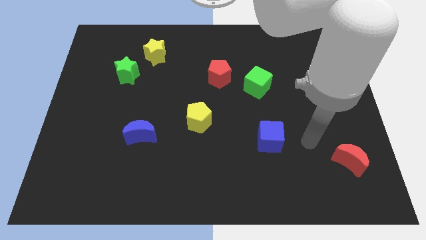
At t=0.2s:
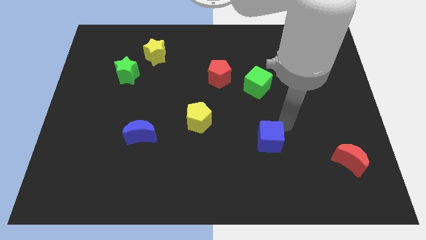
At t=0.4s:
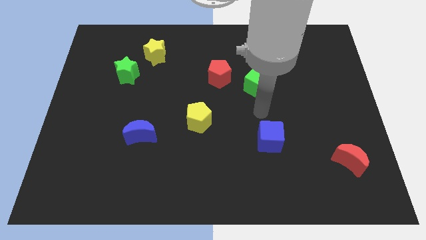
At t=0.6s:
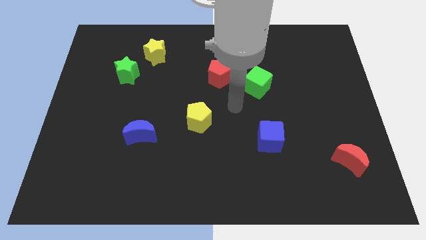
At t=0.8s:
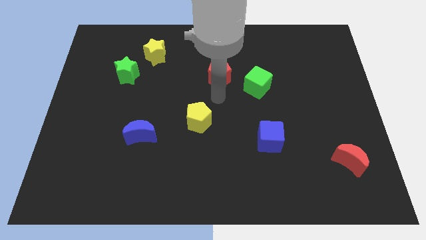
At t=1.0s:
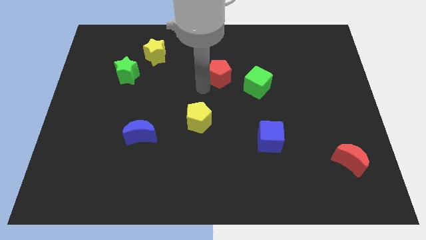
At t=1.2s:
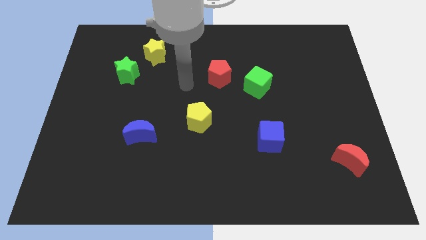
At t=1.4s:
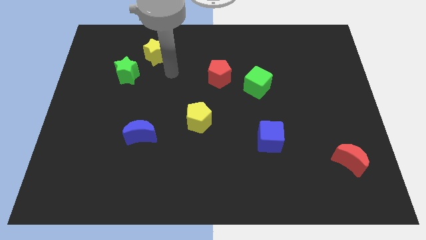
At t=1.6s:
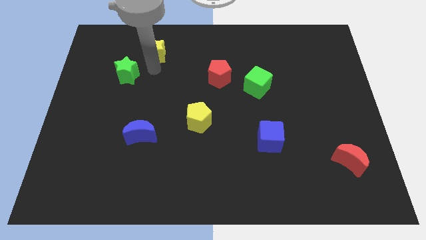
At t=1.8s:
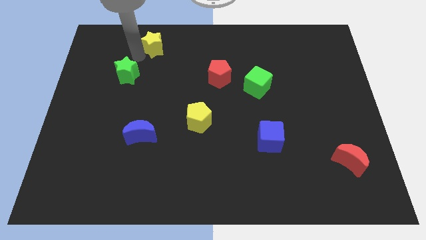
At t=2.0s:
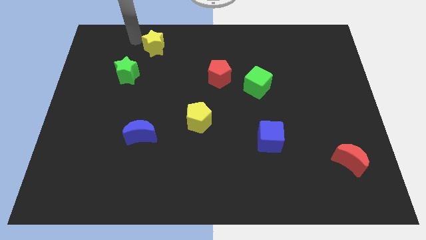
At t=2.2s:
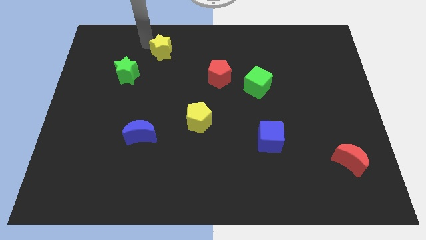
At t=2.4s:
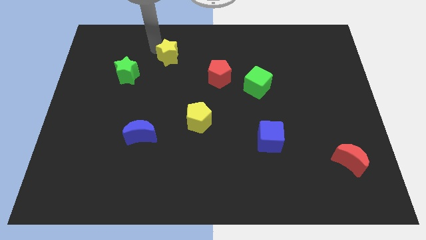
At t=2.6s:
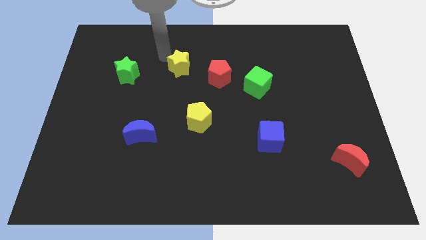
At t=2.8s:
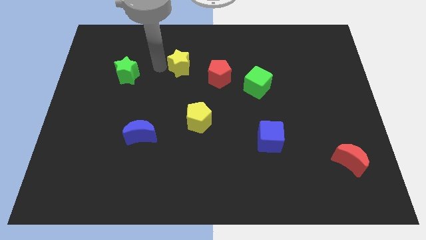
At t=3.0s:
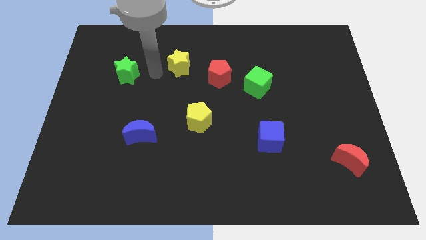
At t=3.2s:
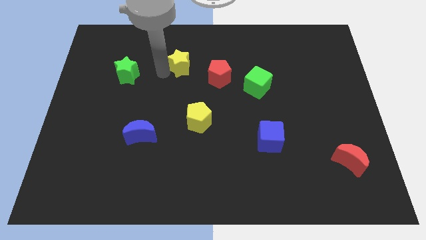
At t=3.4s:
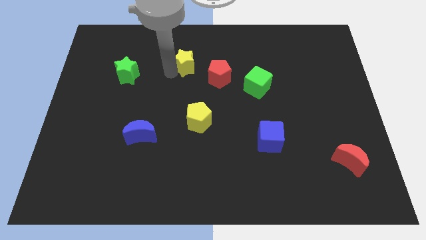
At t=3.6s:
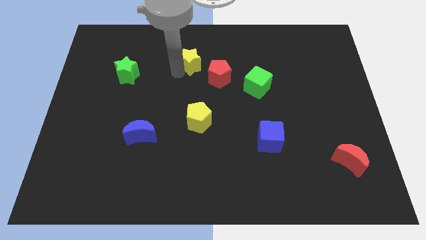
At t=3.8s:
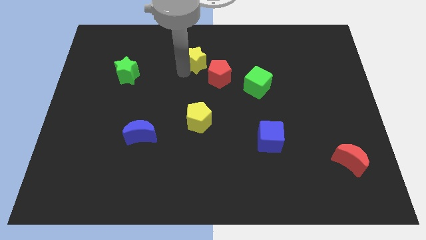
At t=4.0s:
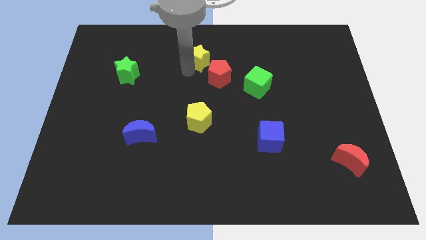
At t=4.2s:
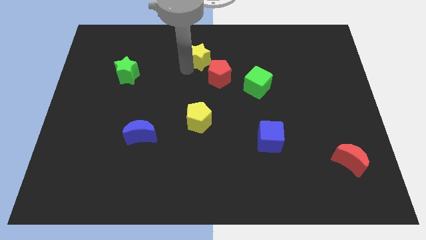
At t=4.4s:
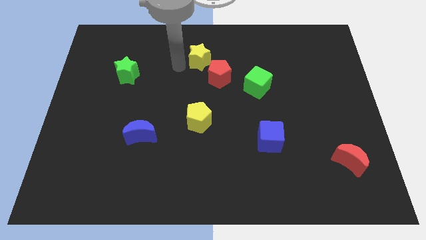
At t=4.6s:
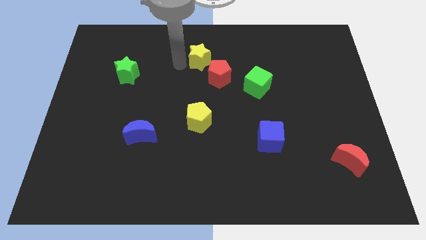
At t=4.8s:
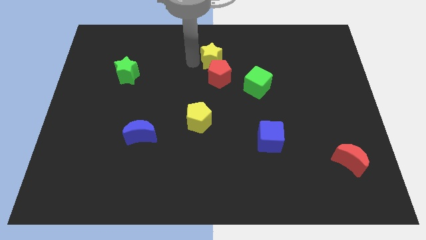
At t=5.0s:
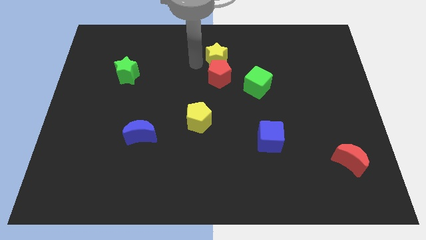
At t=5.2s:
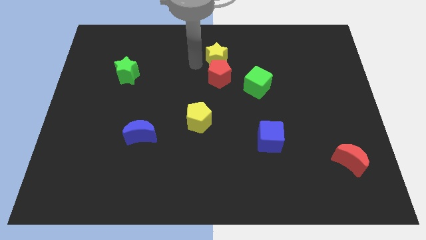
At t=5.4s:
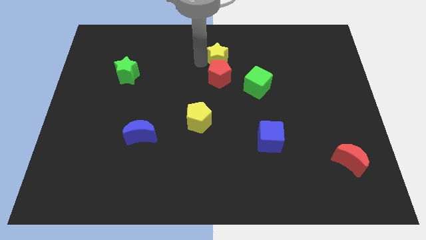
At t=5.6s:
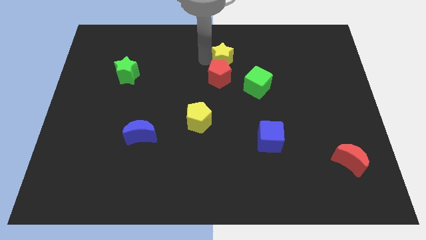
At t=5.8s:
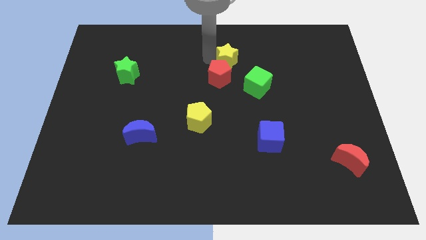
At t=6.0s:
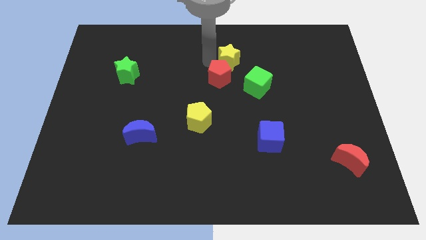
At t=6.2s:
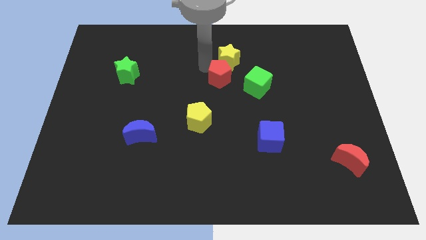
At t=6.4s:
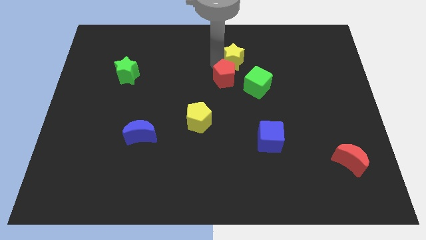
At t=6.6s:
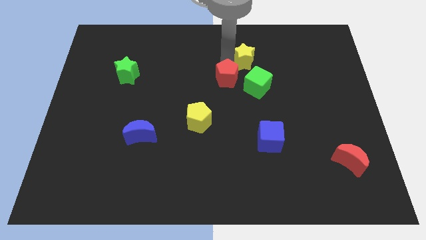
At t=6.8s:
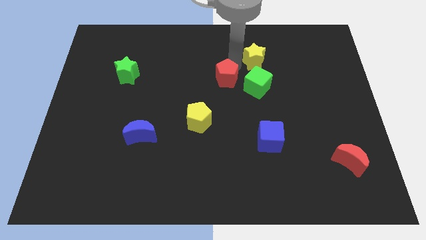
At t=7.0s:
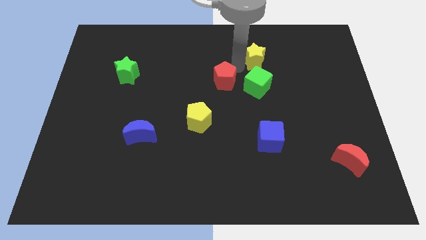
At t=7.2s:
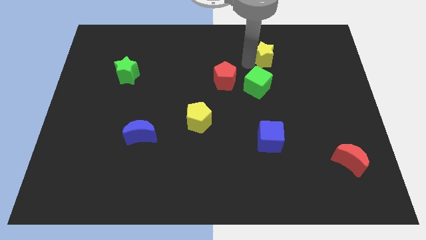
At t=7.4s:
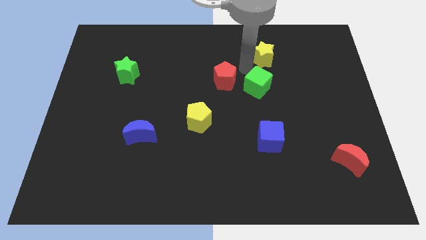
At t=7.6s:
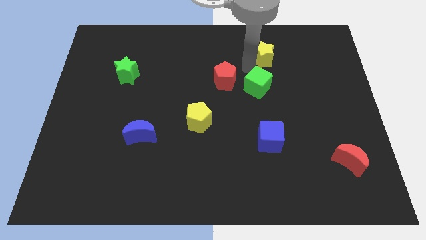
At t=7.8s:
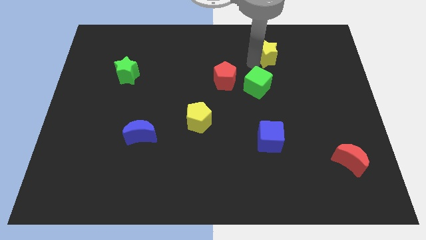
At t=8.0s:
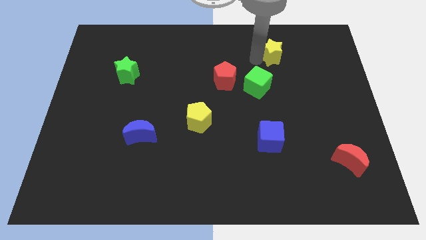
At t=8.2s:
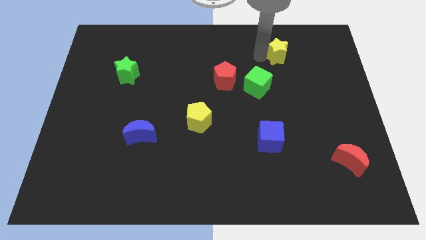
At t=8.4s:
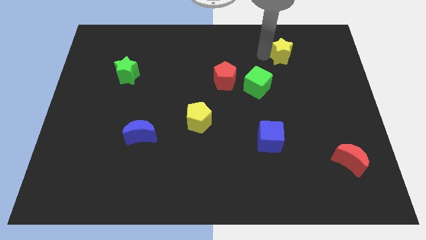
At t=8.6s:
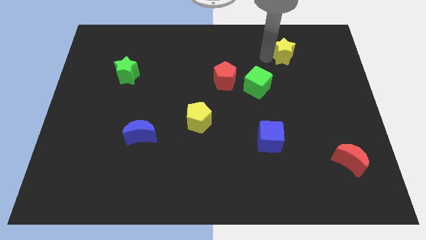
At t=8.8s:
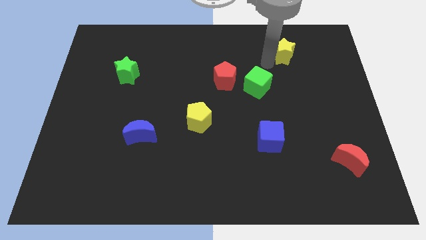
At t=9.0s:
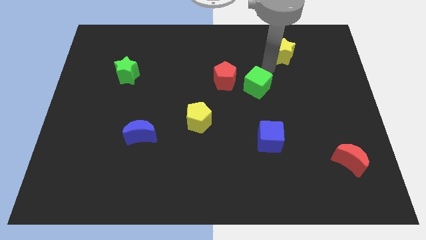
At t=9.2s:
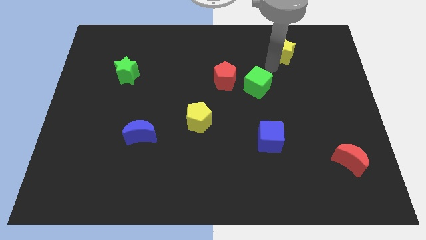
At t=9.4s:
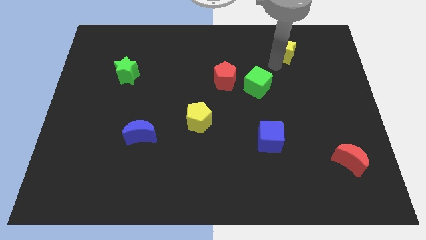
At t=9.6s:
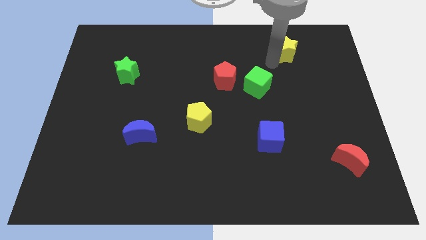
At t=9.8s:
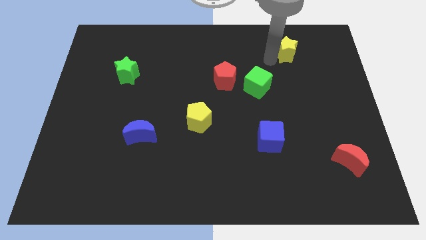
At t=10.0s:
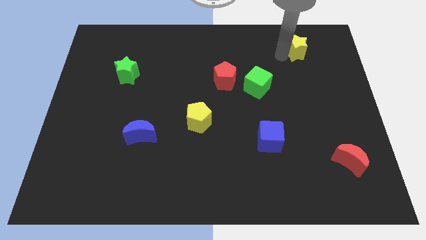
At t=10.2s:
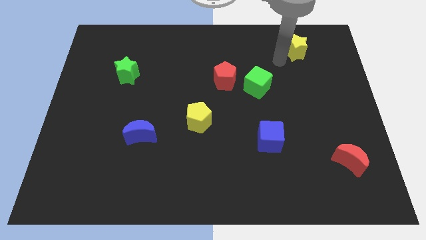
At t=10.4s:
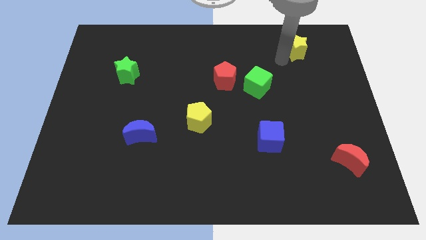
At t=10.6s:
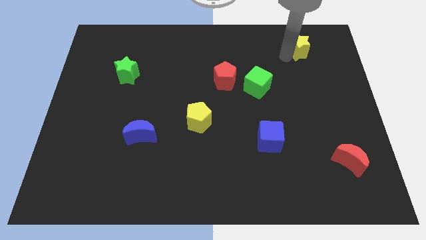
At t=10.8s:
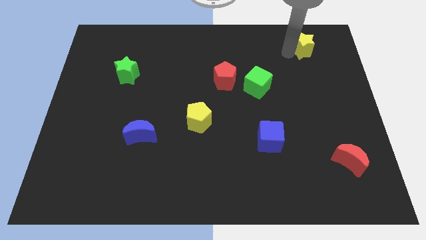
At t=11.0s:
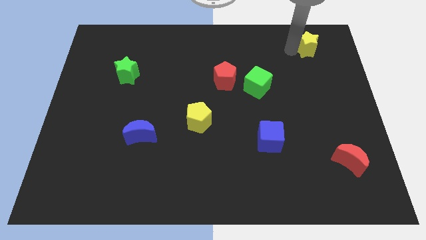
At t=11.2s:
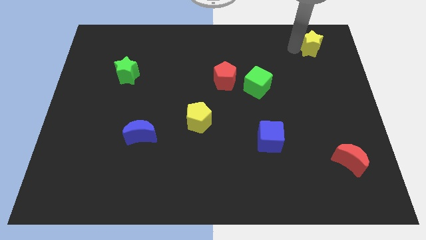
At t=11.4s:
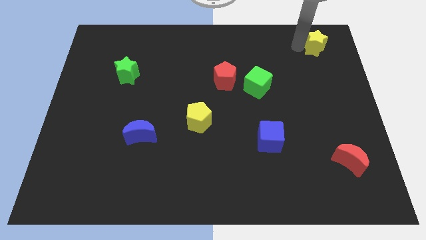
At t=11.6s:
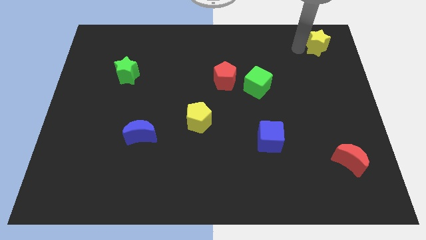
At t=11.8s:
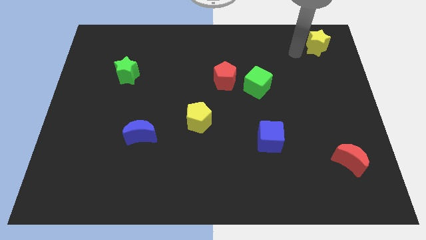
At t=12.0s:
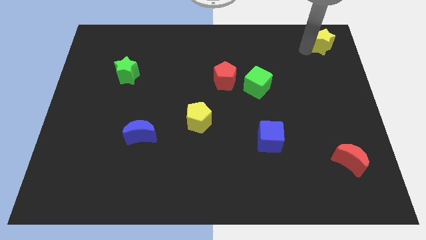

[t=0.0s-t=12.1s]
put the yellow star to the top right
